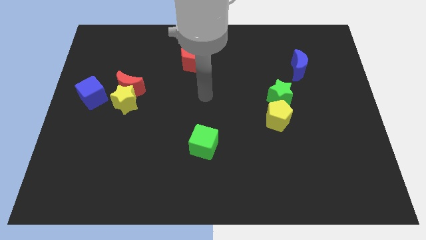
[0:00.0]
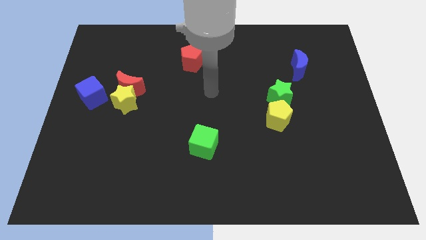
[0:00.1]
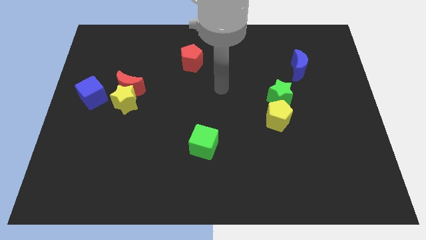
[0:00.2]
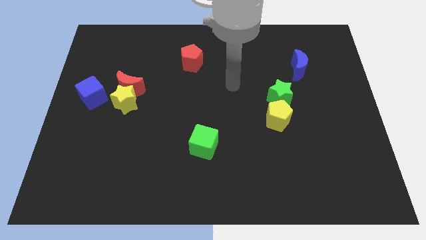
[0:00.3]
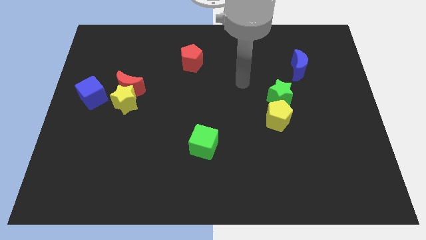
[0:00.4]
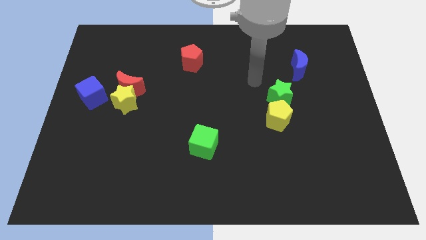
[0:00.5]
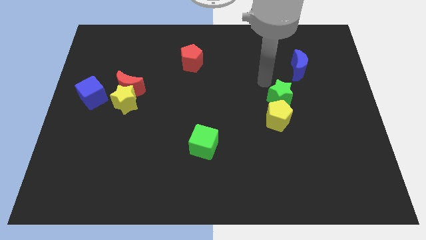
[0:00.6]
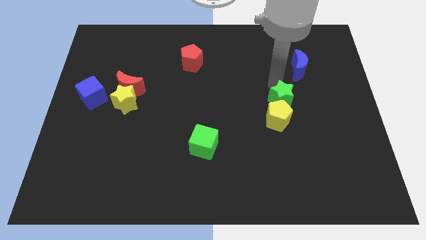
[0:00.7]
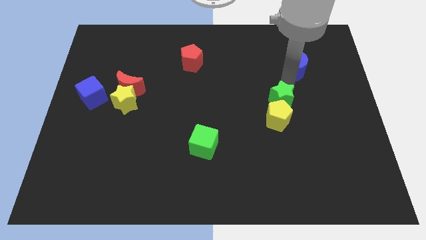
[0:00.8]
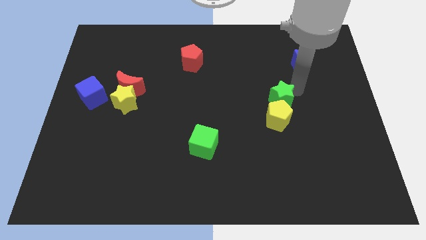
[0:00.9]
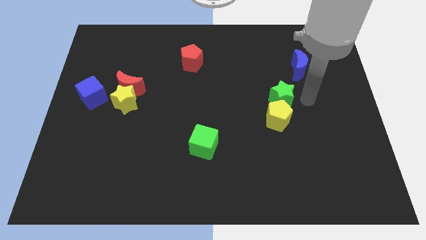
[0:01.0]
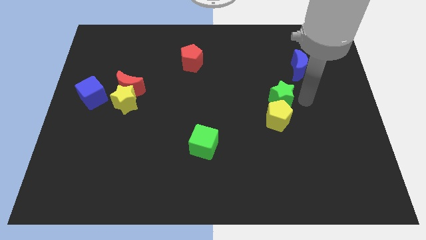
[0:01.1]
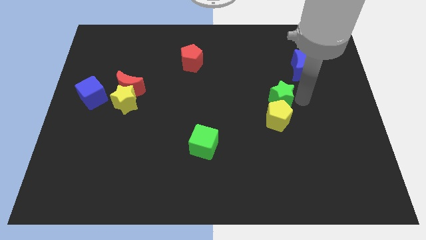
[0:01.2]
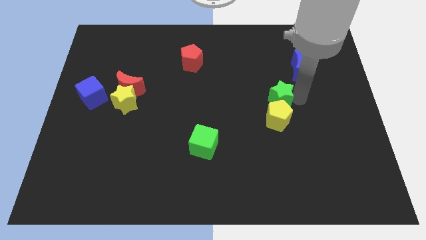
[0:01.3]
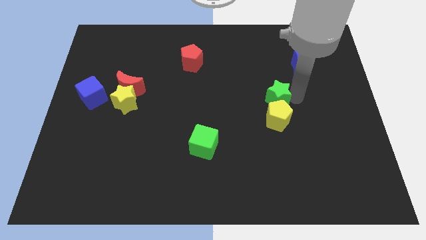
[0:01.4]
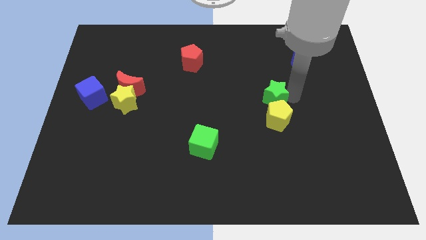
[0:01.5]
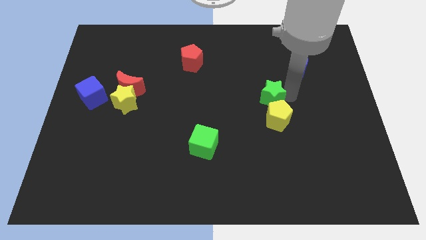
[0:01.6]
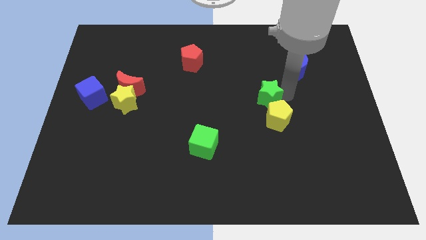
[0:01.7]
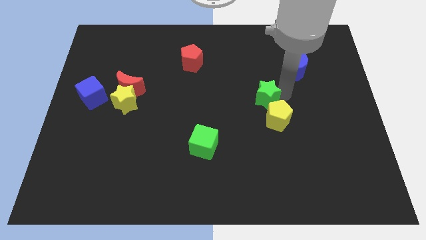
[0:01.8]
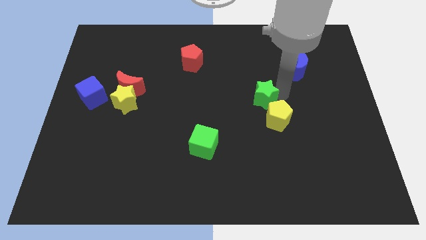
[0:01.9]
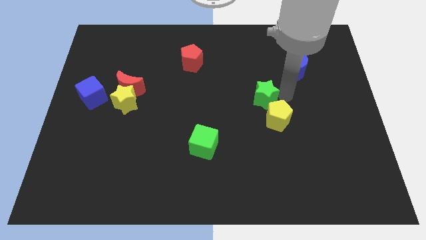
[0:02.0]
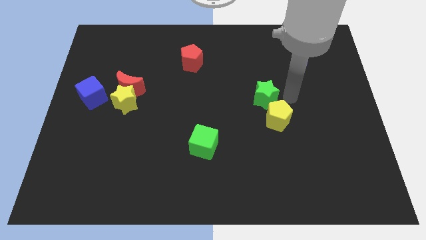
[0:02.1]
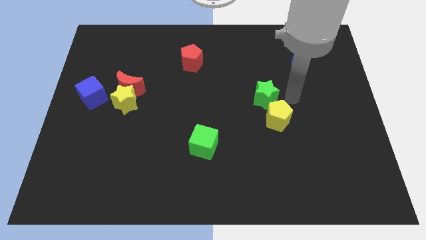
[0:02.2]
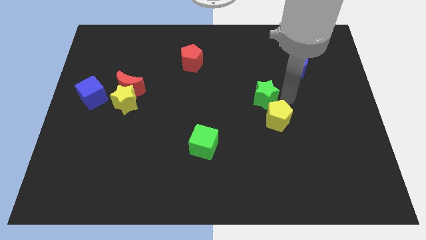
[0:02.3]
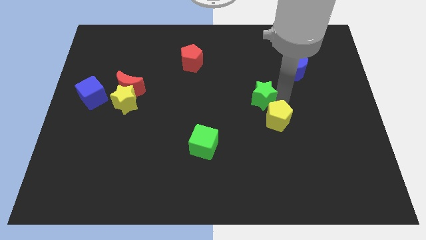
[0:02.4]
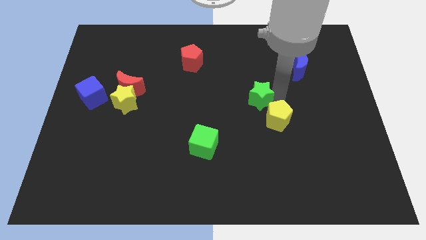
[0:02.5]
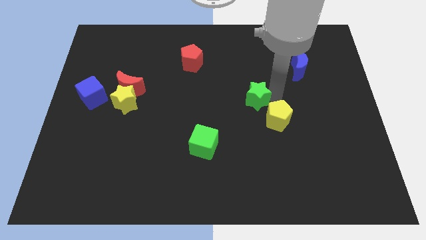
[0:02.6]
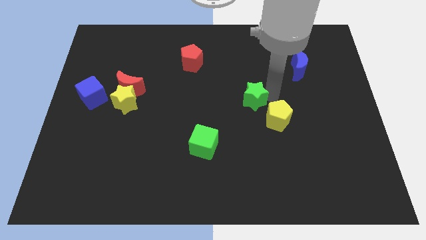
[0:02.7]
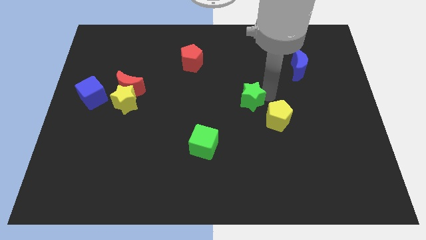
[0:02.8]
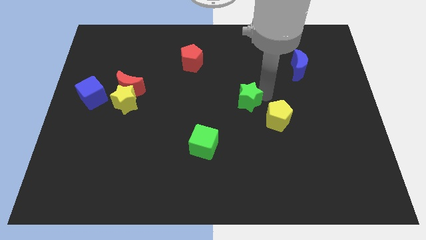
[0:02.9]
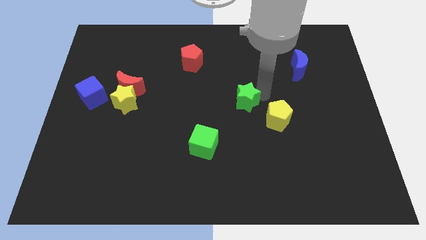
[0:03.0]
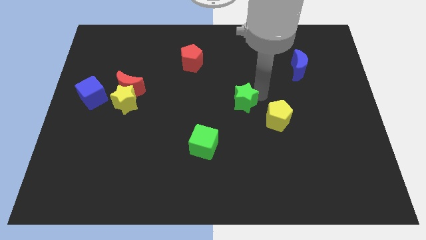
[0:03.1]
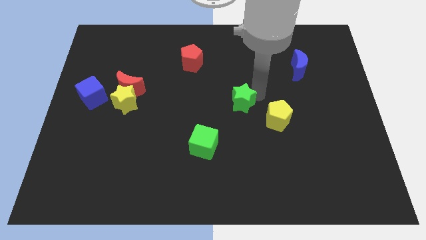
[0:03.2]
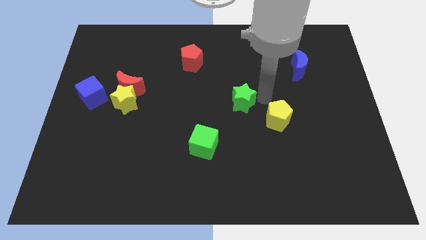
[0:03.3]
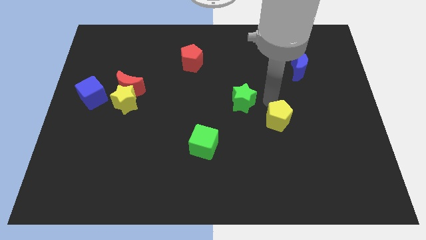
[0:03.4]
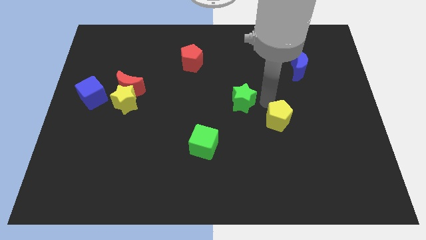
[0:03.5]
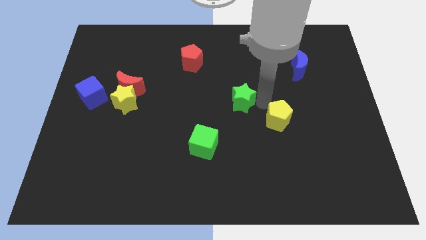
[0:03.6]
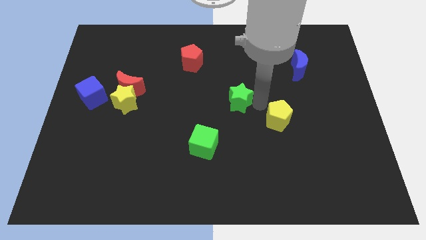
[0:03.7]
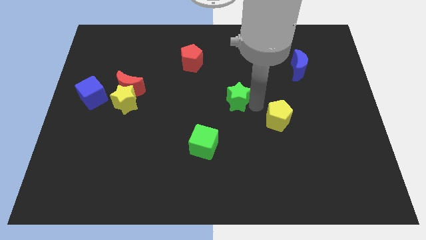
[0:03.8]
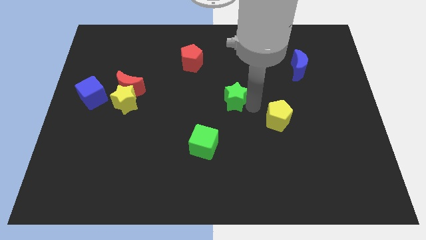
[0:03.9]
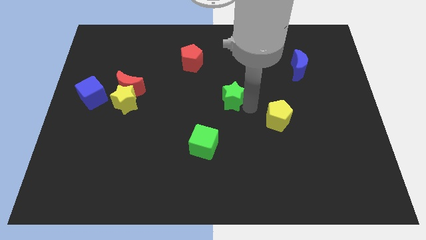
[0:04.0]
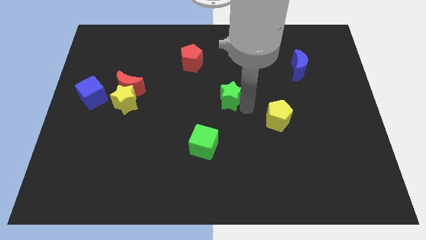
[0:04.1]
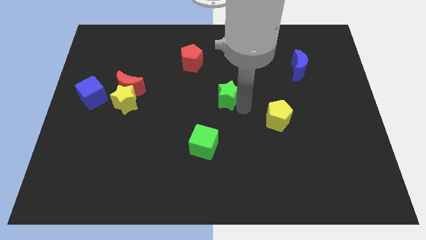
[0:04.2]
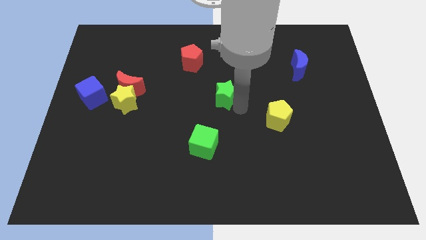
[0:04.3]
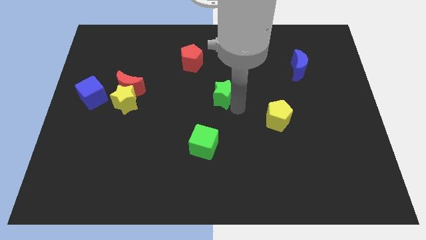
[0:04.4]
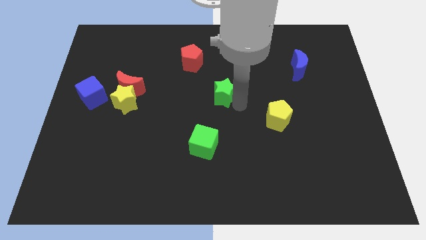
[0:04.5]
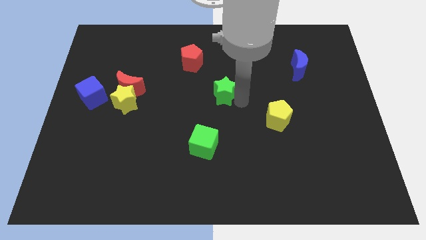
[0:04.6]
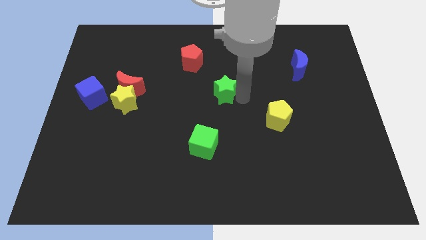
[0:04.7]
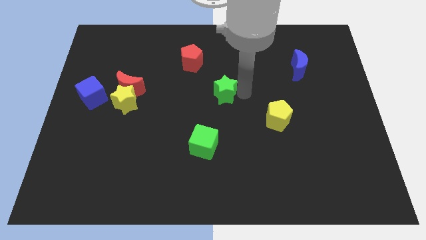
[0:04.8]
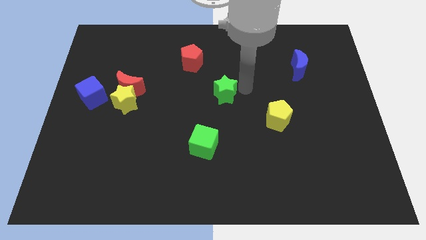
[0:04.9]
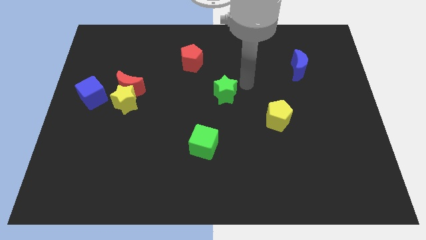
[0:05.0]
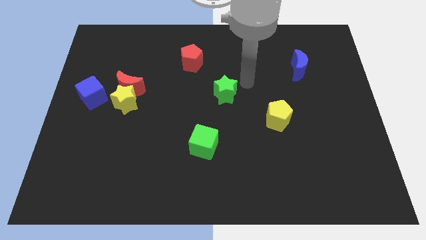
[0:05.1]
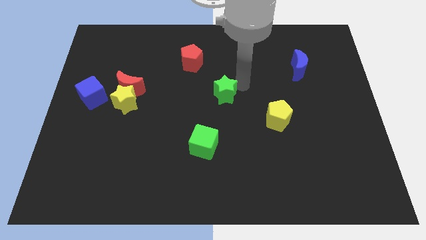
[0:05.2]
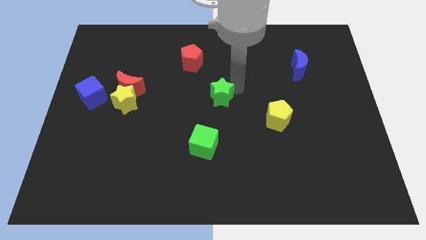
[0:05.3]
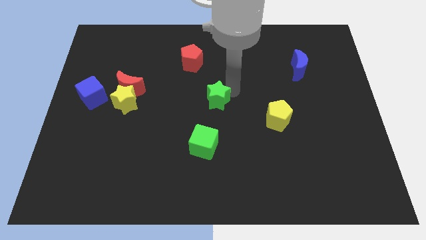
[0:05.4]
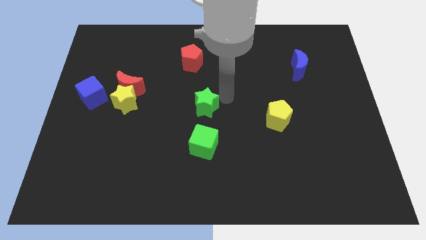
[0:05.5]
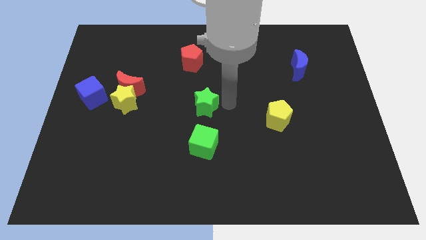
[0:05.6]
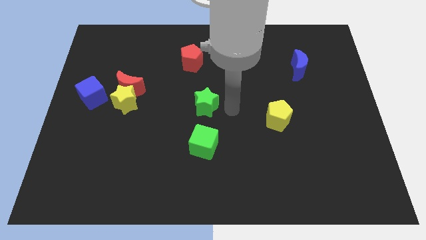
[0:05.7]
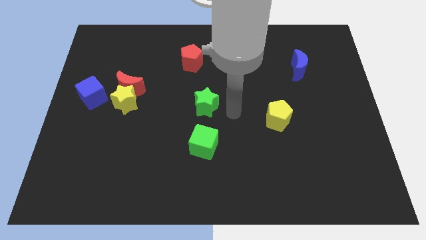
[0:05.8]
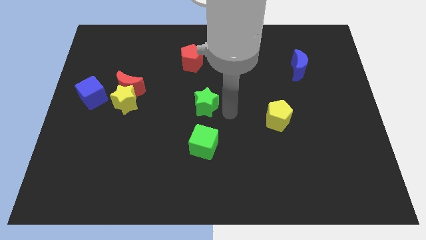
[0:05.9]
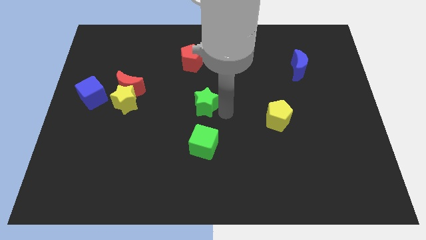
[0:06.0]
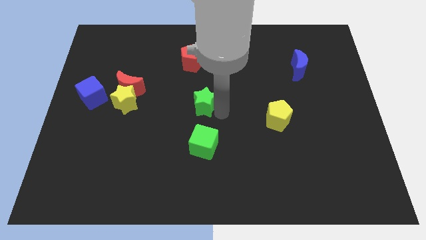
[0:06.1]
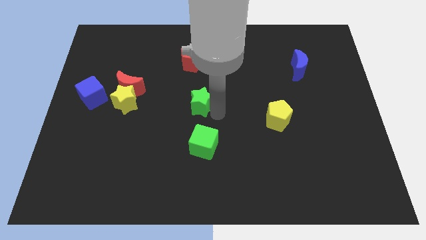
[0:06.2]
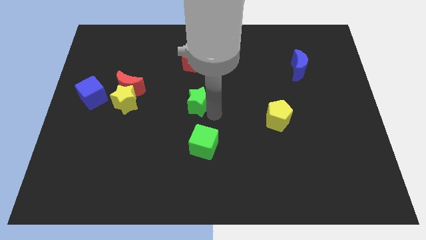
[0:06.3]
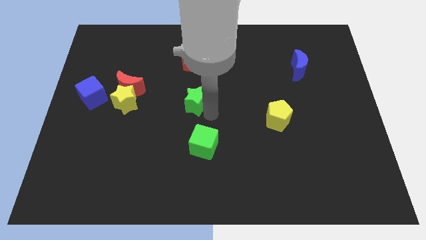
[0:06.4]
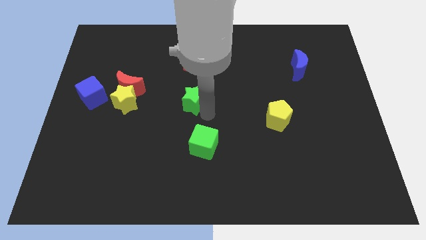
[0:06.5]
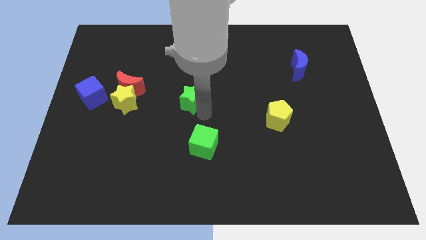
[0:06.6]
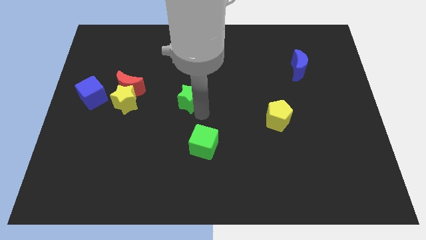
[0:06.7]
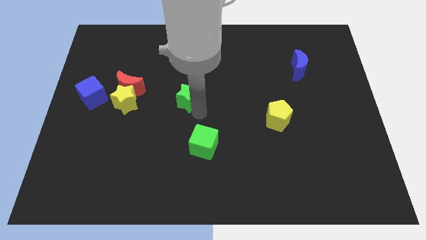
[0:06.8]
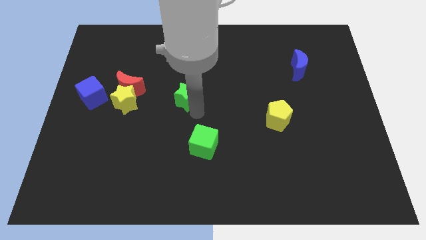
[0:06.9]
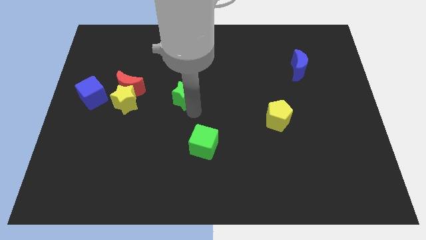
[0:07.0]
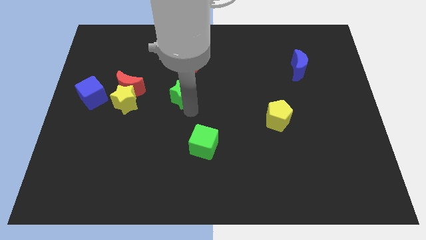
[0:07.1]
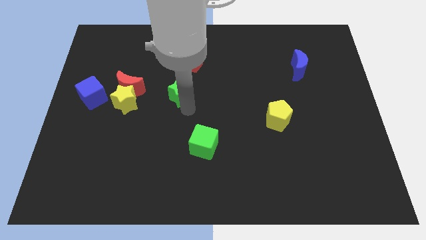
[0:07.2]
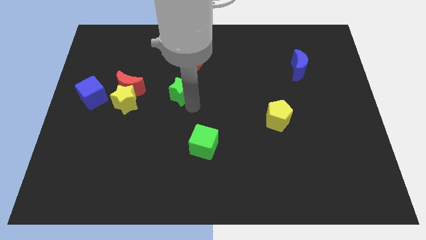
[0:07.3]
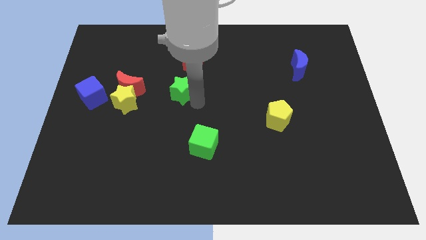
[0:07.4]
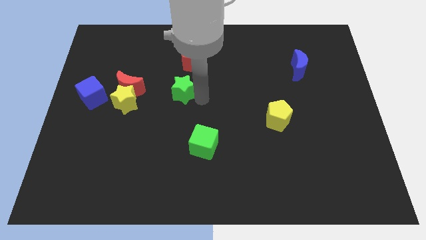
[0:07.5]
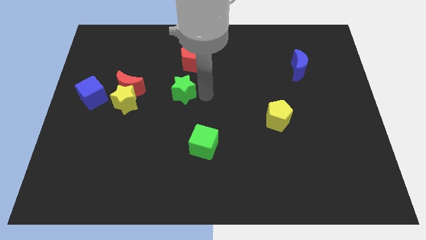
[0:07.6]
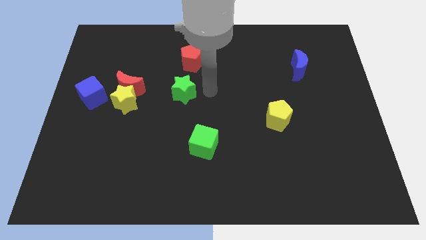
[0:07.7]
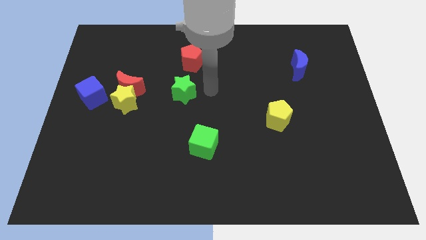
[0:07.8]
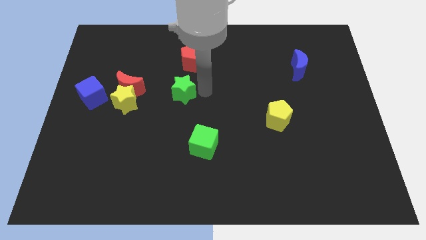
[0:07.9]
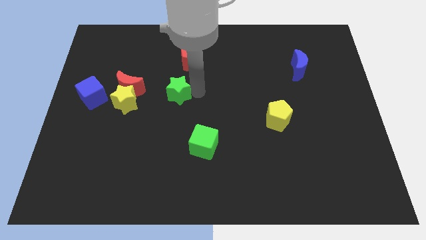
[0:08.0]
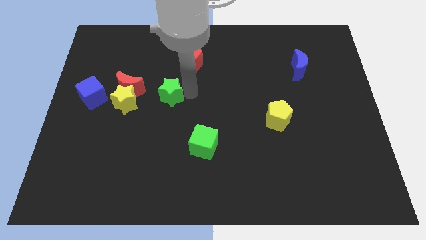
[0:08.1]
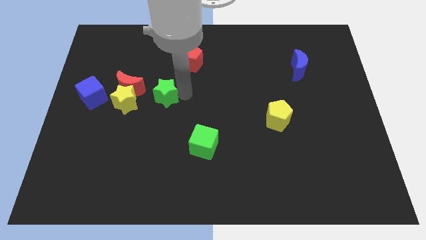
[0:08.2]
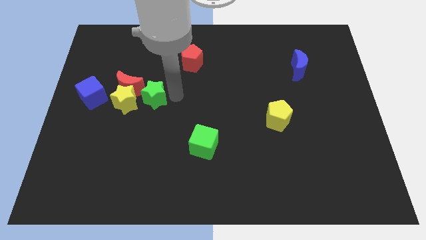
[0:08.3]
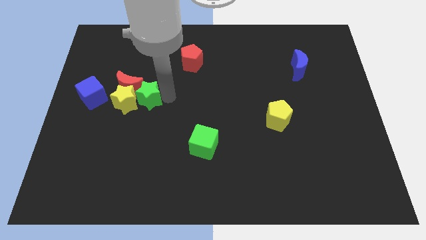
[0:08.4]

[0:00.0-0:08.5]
slide the green star towards the yellow star
